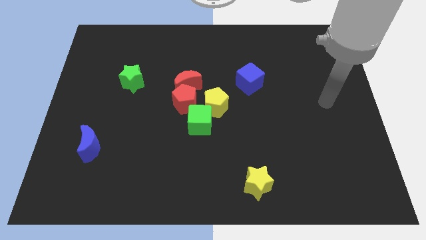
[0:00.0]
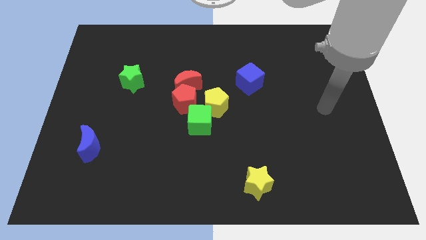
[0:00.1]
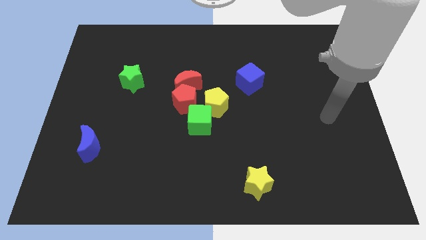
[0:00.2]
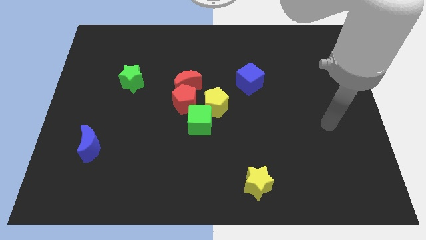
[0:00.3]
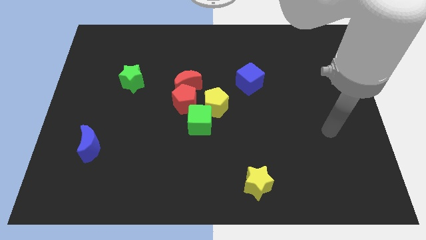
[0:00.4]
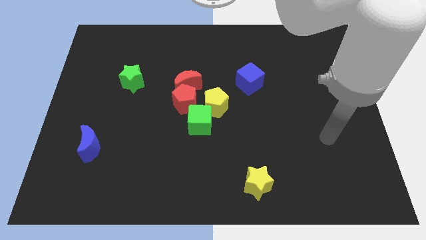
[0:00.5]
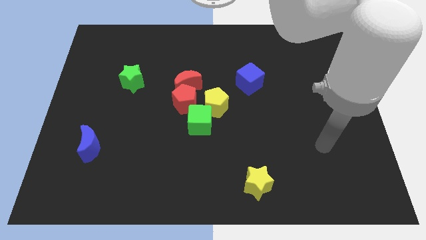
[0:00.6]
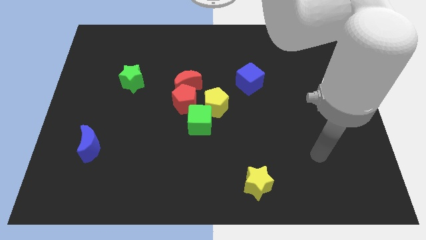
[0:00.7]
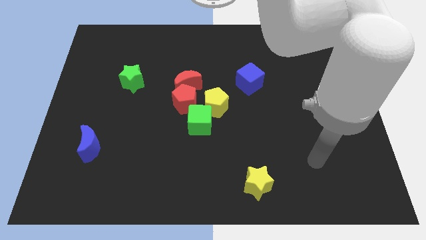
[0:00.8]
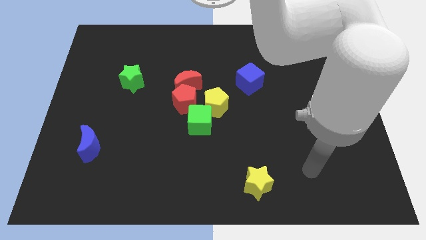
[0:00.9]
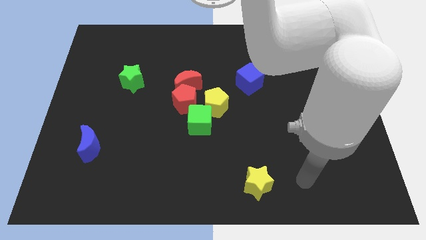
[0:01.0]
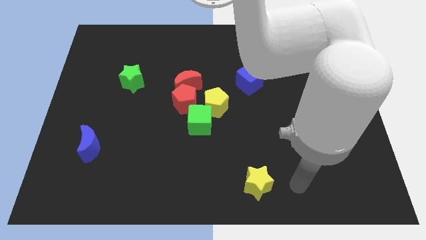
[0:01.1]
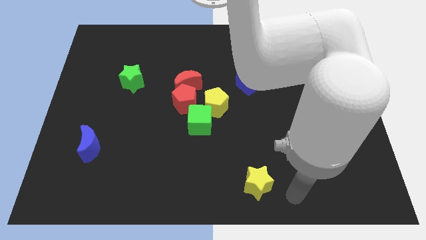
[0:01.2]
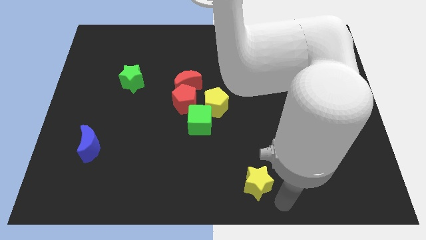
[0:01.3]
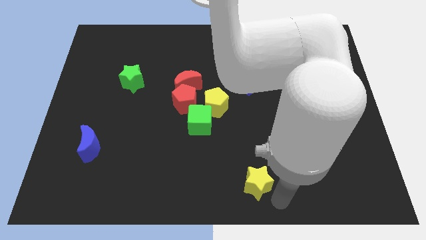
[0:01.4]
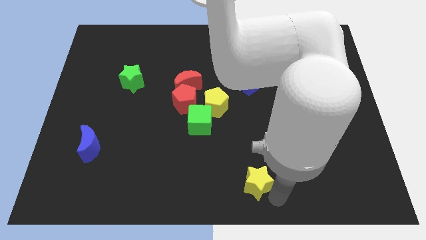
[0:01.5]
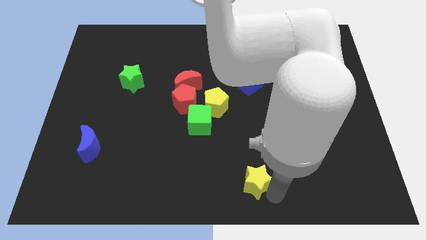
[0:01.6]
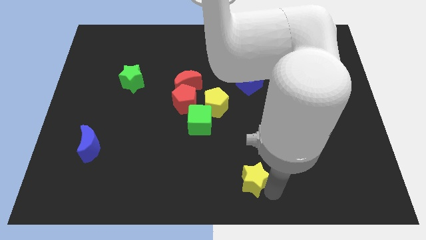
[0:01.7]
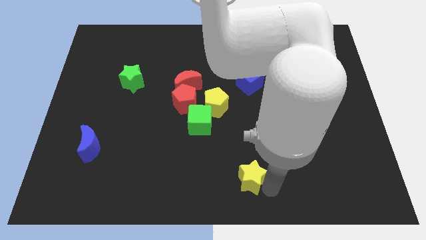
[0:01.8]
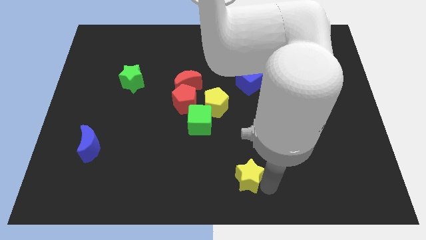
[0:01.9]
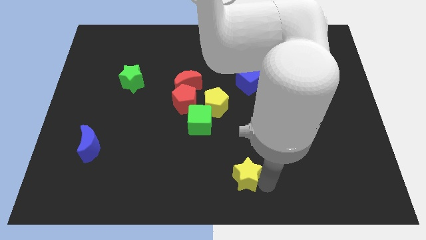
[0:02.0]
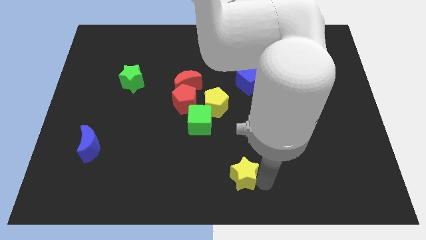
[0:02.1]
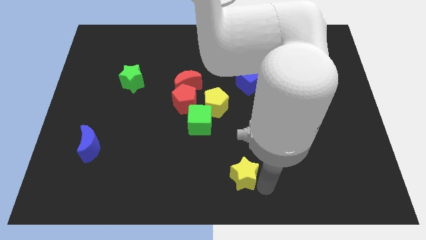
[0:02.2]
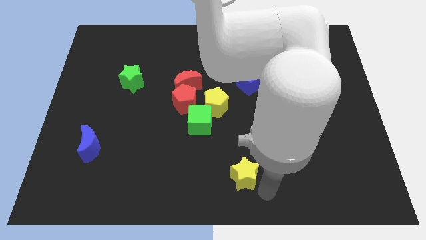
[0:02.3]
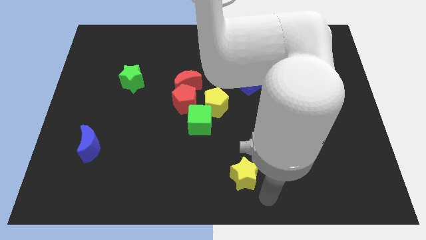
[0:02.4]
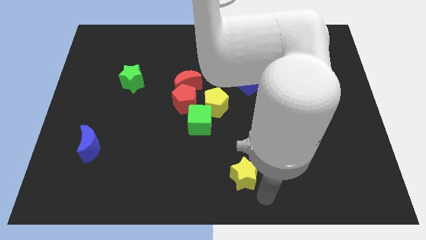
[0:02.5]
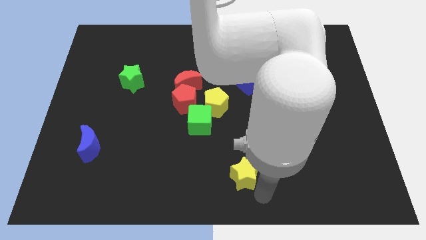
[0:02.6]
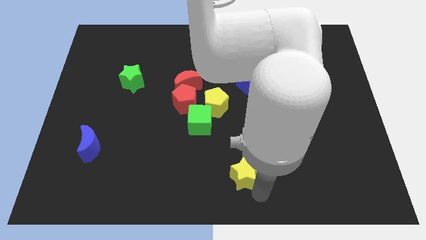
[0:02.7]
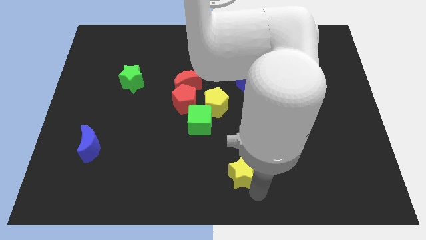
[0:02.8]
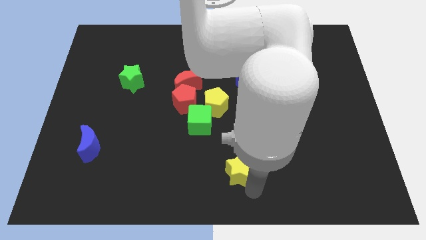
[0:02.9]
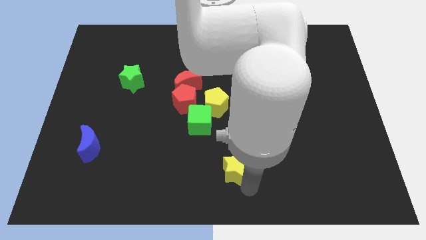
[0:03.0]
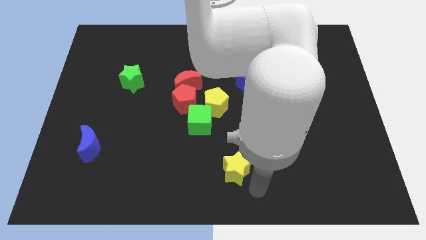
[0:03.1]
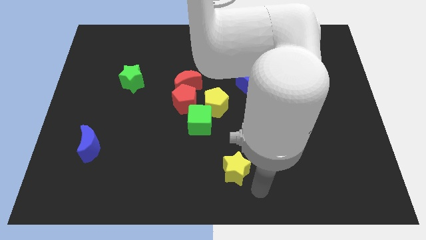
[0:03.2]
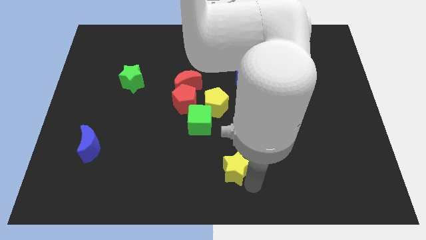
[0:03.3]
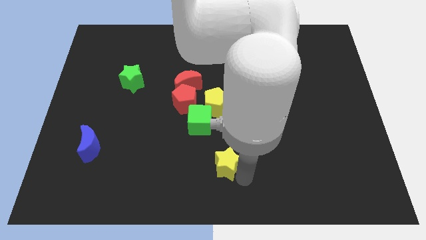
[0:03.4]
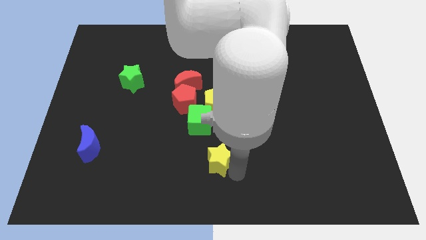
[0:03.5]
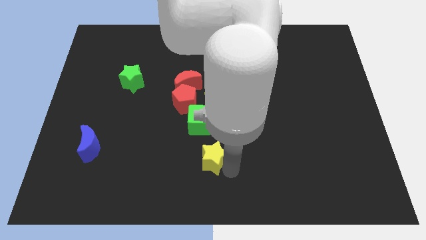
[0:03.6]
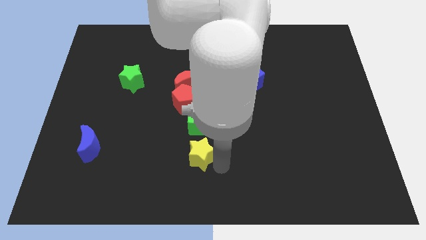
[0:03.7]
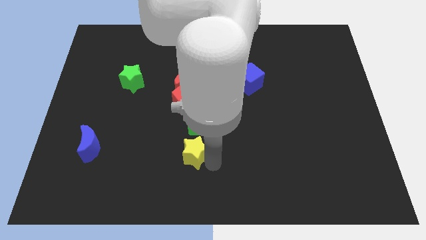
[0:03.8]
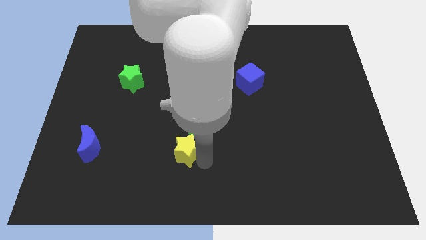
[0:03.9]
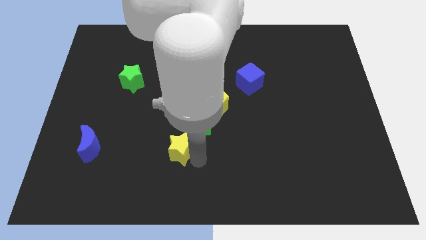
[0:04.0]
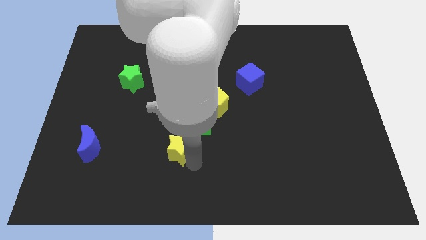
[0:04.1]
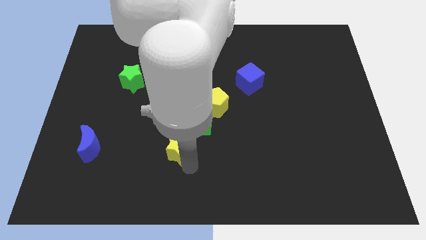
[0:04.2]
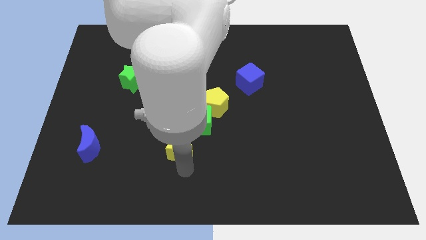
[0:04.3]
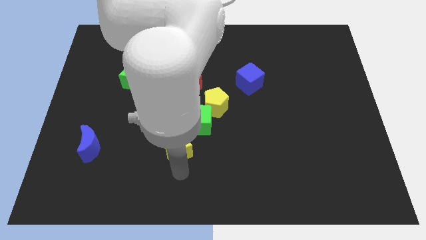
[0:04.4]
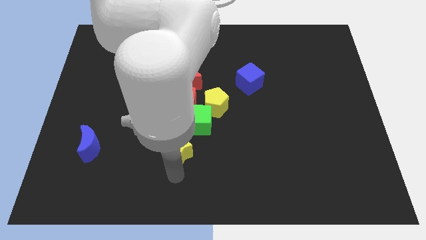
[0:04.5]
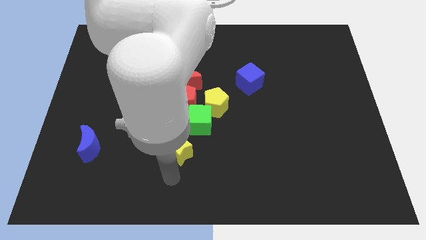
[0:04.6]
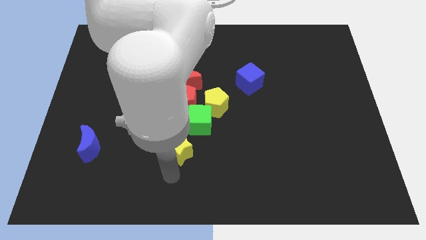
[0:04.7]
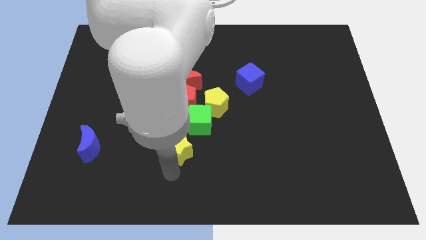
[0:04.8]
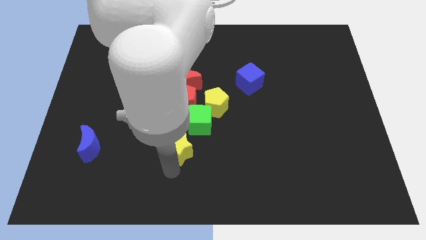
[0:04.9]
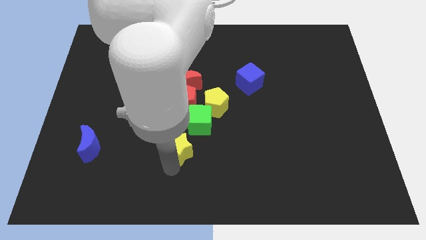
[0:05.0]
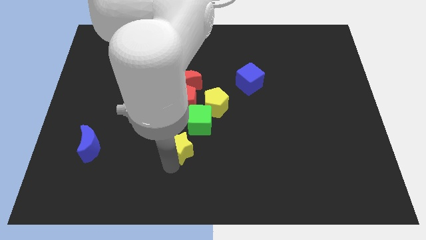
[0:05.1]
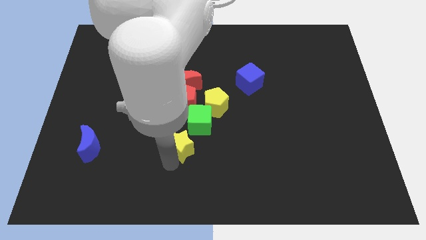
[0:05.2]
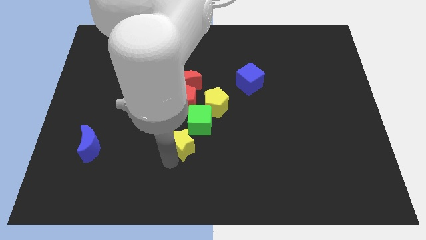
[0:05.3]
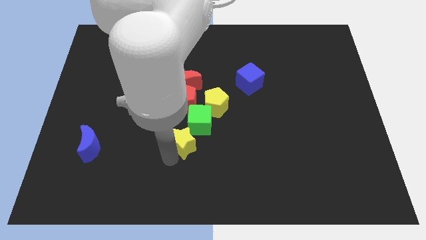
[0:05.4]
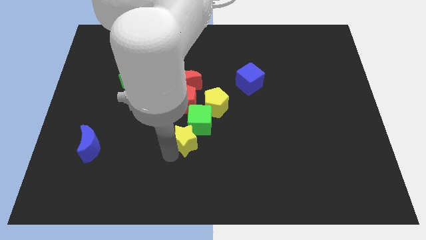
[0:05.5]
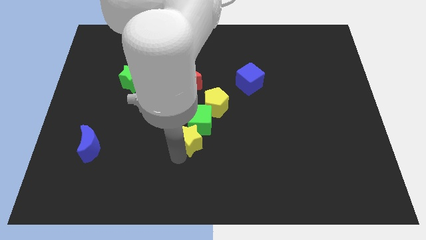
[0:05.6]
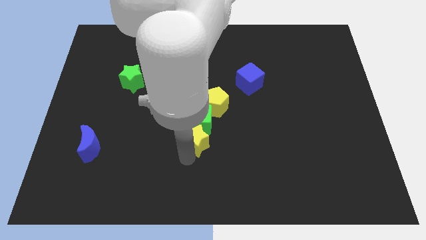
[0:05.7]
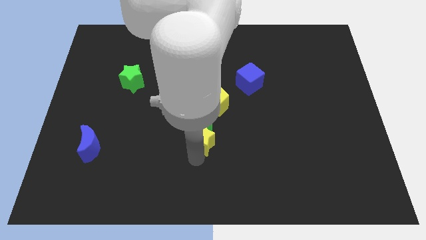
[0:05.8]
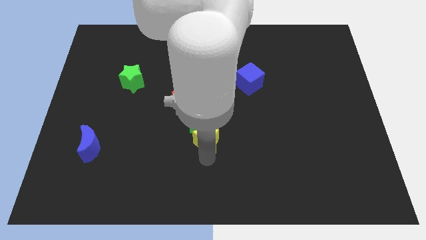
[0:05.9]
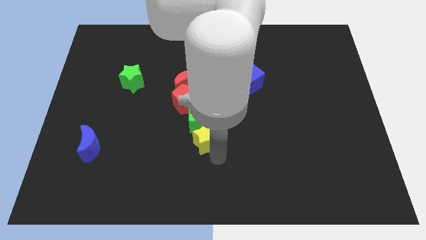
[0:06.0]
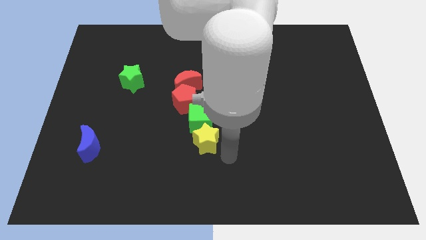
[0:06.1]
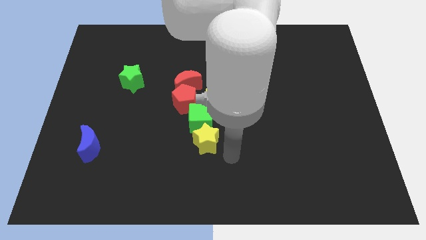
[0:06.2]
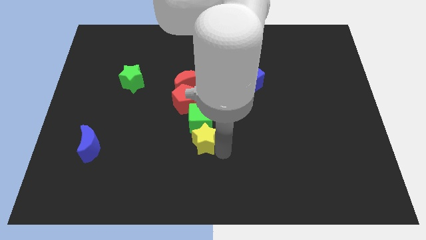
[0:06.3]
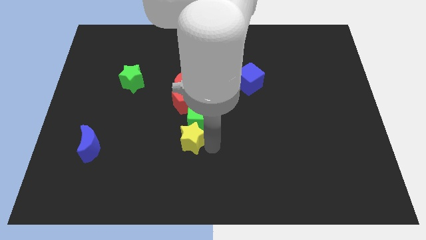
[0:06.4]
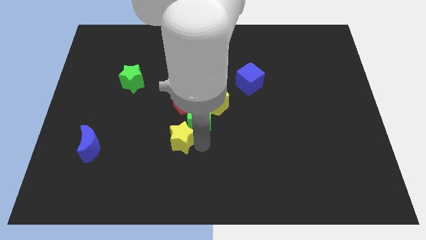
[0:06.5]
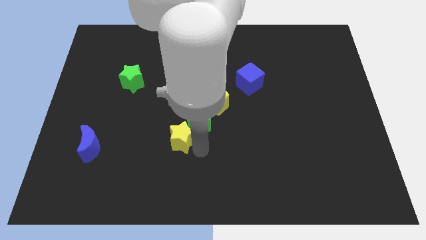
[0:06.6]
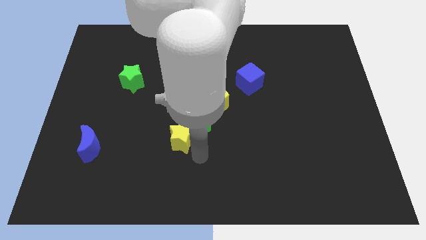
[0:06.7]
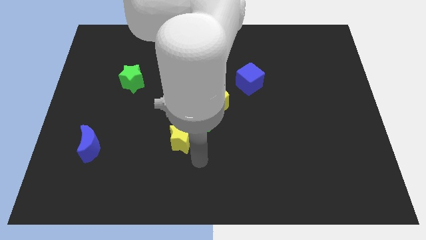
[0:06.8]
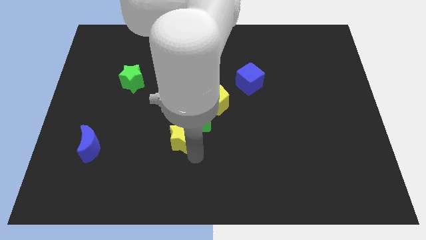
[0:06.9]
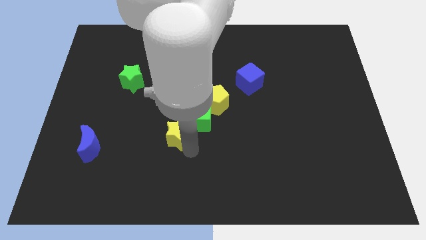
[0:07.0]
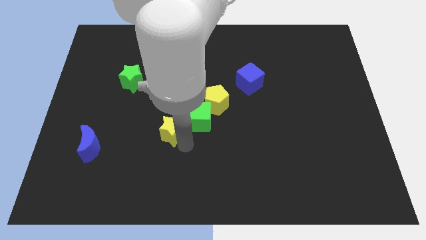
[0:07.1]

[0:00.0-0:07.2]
slide the yellow star diagonally upwards and left

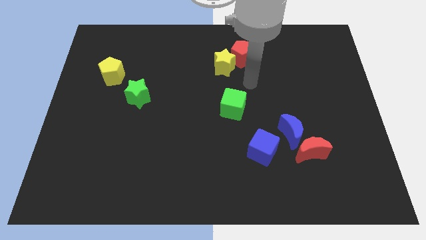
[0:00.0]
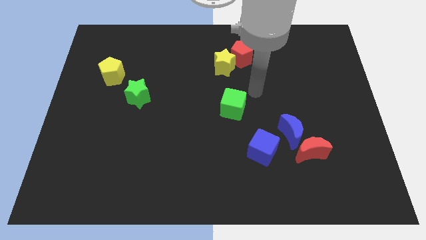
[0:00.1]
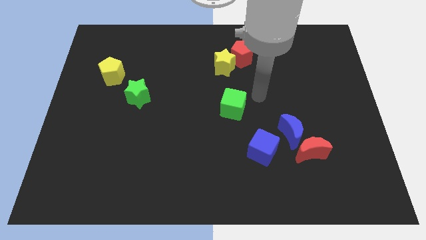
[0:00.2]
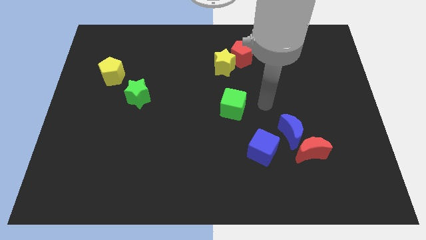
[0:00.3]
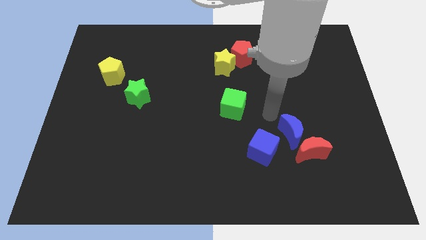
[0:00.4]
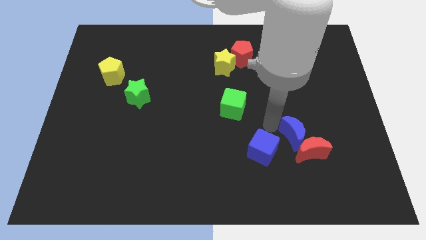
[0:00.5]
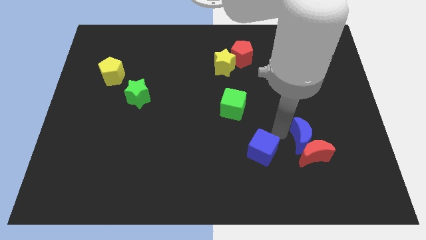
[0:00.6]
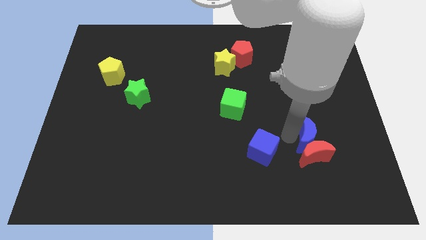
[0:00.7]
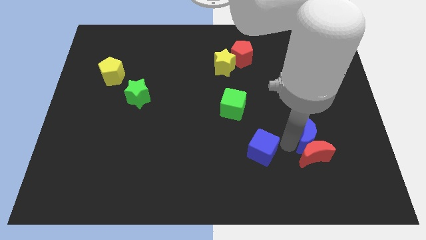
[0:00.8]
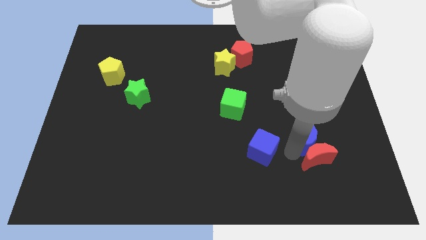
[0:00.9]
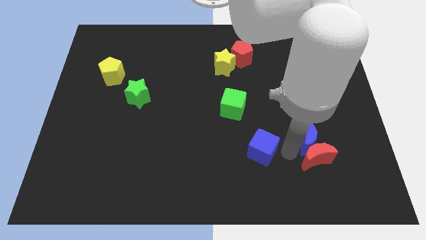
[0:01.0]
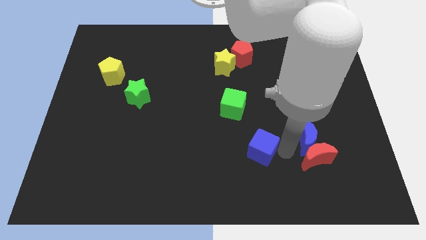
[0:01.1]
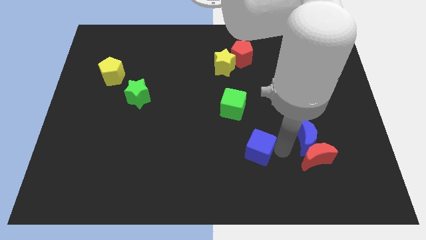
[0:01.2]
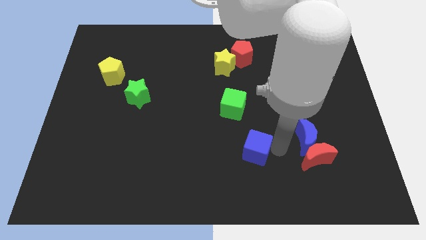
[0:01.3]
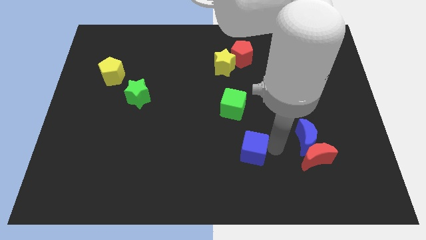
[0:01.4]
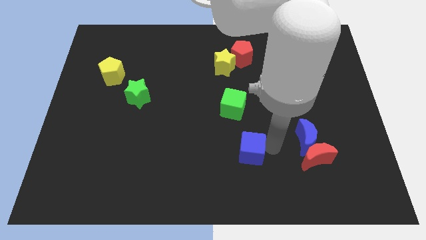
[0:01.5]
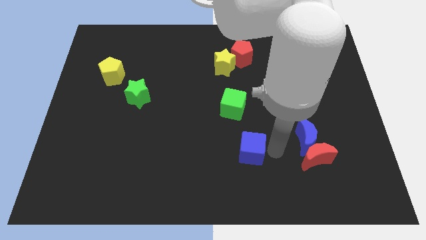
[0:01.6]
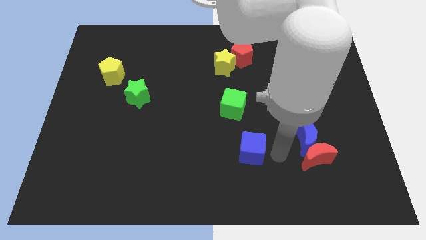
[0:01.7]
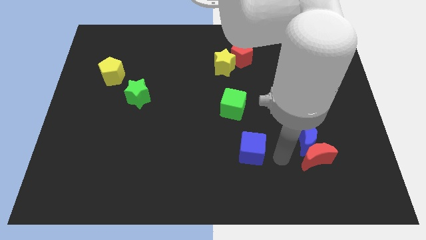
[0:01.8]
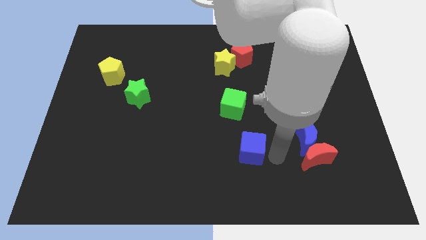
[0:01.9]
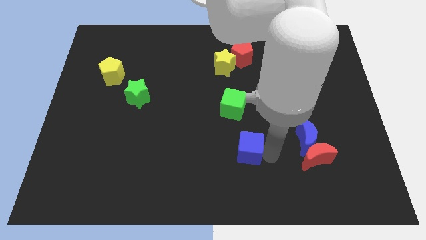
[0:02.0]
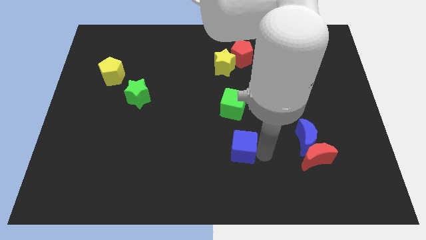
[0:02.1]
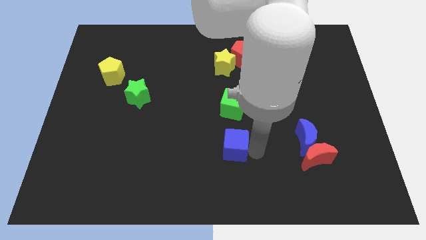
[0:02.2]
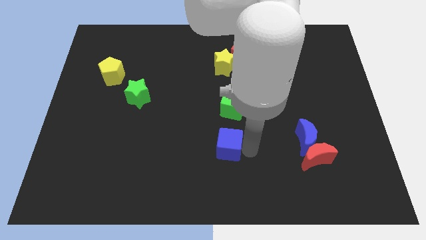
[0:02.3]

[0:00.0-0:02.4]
move the blue cube a little bit left
